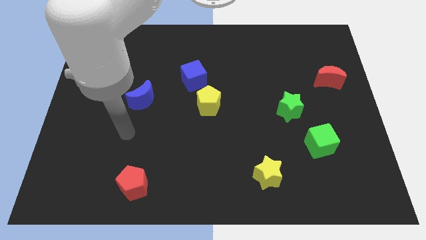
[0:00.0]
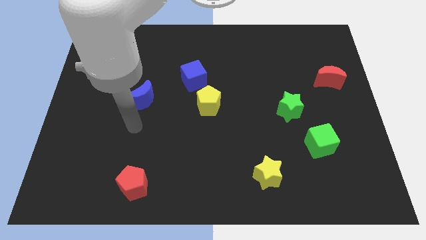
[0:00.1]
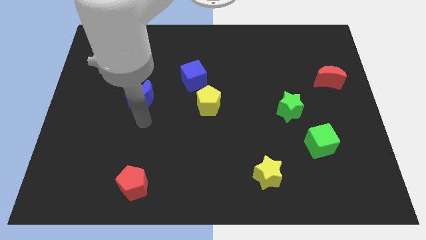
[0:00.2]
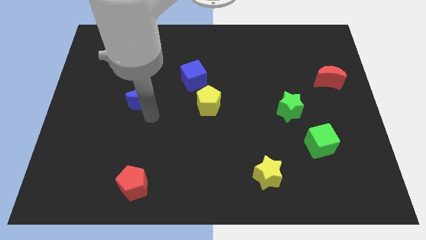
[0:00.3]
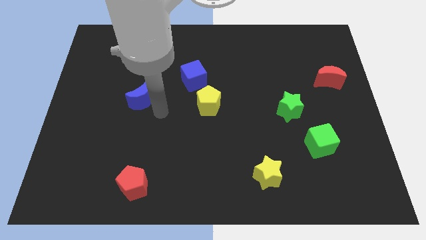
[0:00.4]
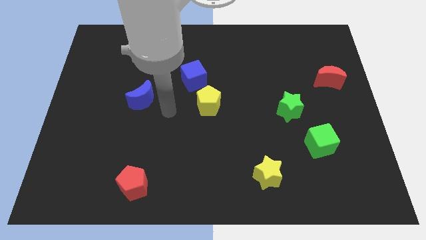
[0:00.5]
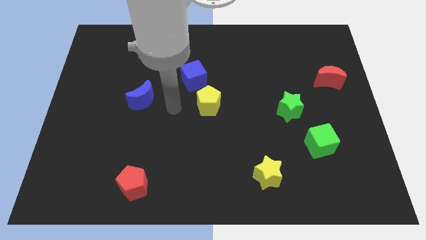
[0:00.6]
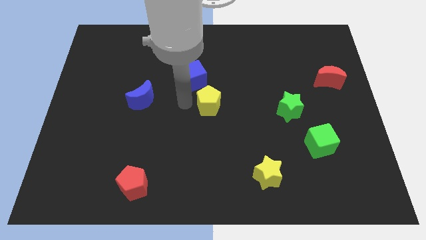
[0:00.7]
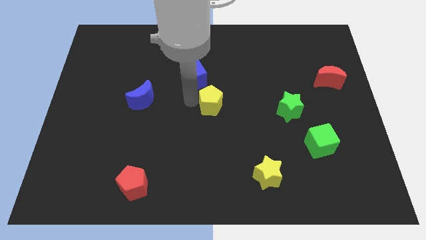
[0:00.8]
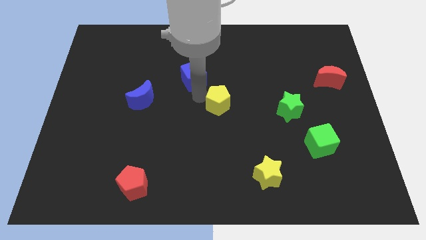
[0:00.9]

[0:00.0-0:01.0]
pull the blue cube apart from the yellow pentagon

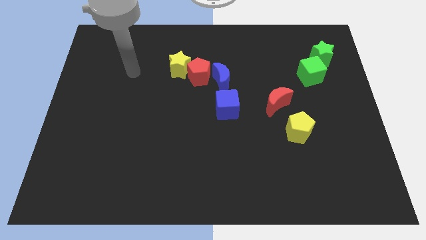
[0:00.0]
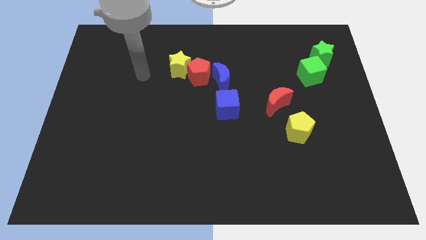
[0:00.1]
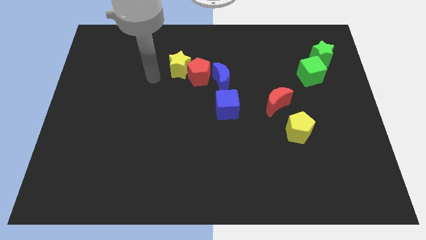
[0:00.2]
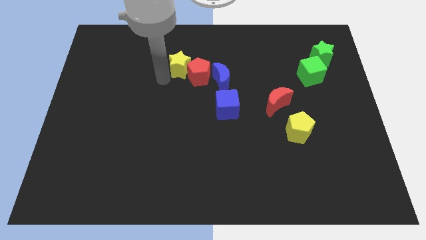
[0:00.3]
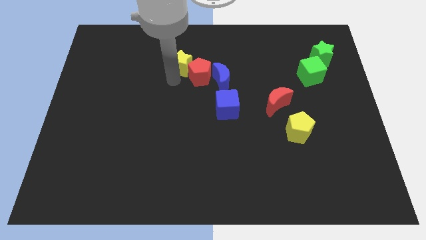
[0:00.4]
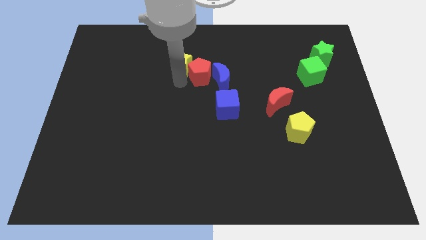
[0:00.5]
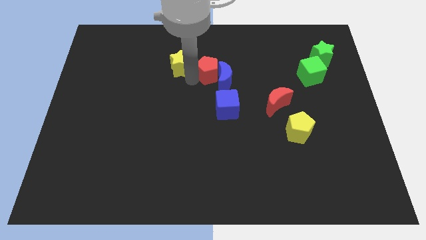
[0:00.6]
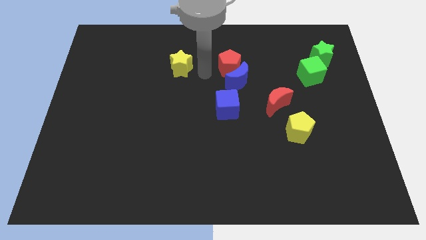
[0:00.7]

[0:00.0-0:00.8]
move the yellow star away from the red pentagon

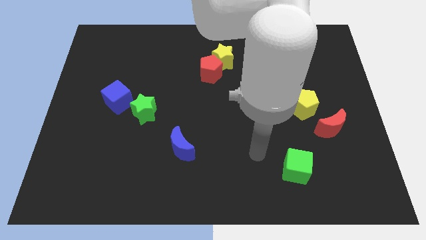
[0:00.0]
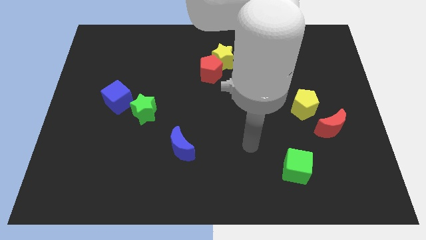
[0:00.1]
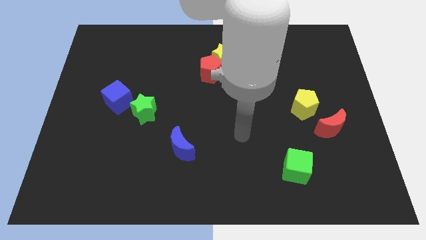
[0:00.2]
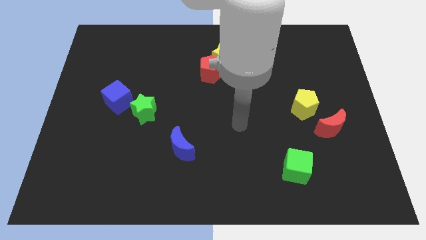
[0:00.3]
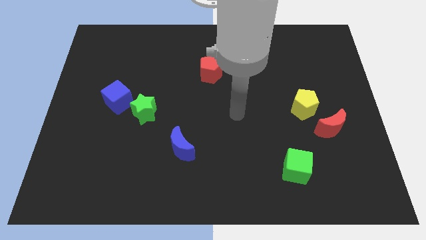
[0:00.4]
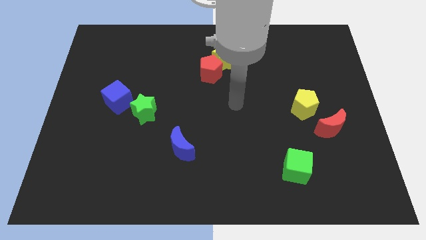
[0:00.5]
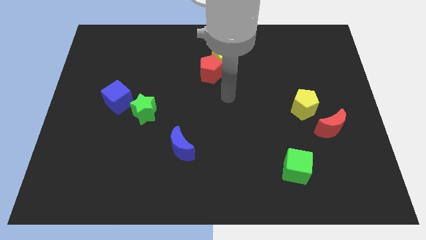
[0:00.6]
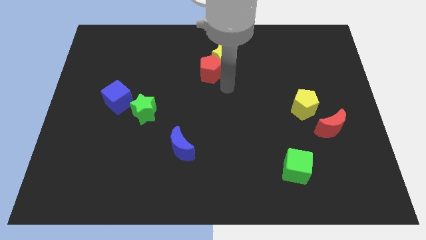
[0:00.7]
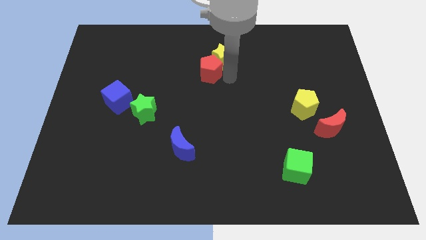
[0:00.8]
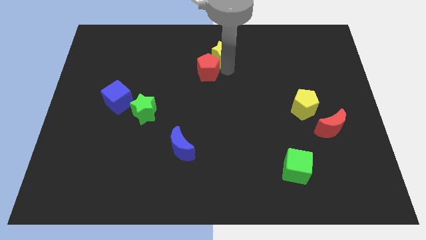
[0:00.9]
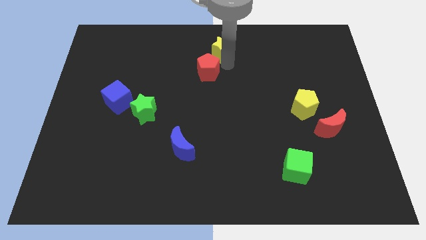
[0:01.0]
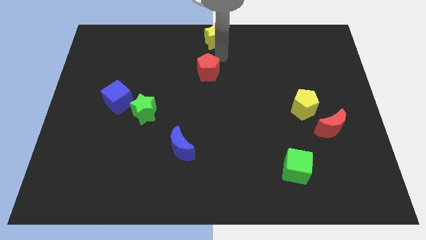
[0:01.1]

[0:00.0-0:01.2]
separate the red pentagon from the yellow star

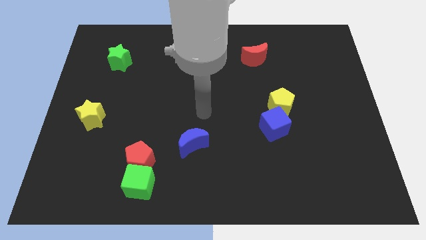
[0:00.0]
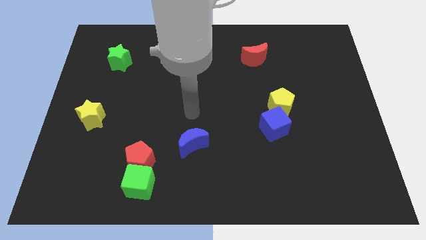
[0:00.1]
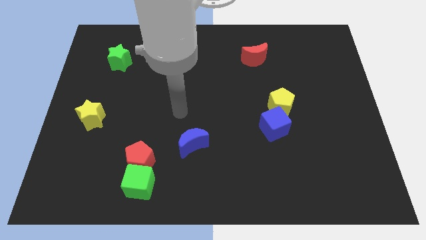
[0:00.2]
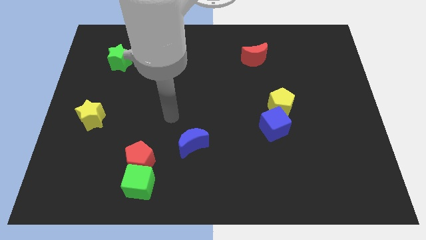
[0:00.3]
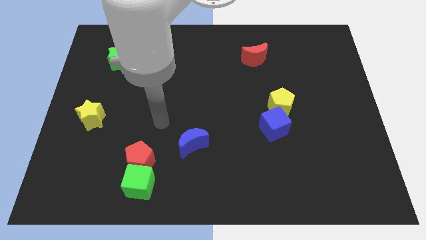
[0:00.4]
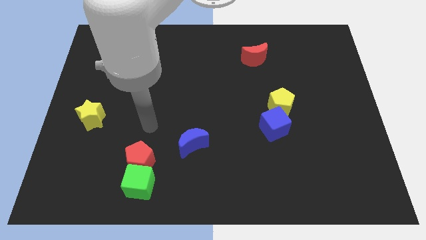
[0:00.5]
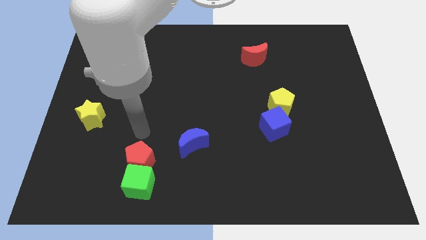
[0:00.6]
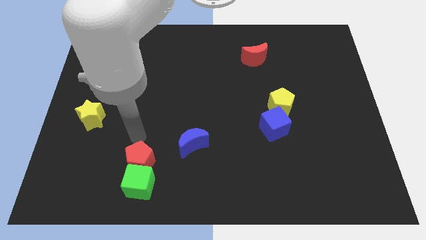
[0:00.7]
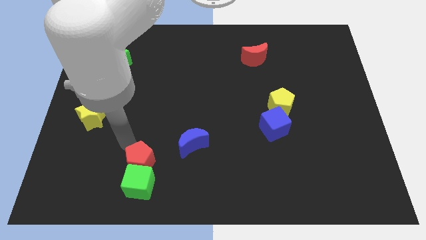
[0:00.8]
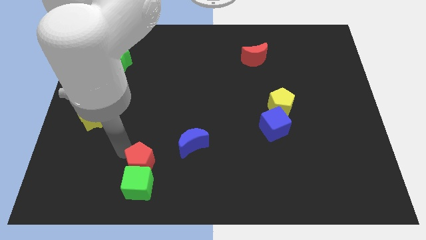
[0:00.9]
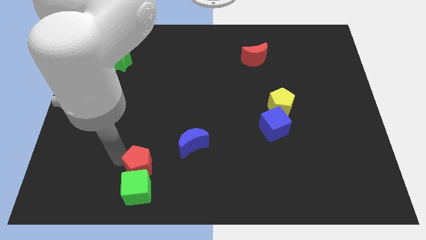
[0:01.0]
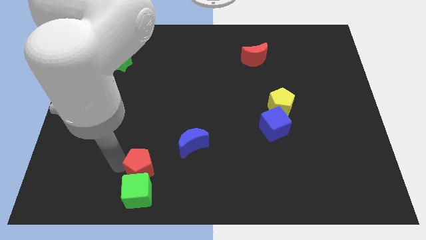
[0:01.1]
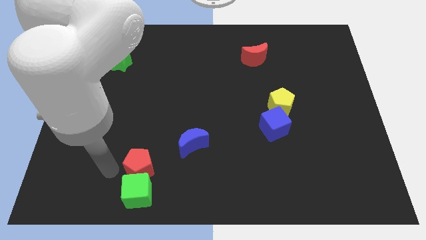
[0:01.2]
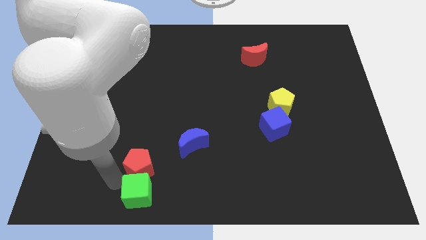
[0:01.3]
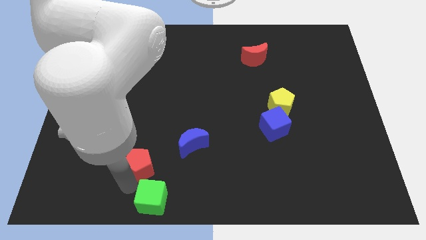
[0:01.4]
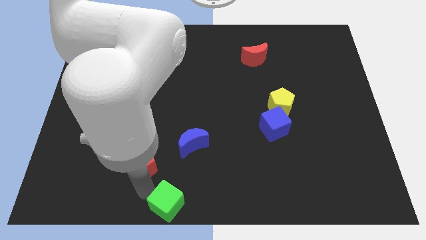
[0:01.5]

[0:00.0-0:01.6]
pull the red pentagon apart from the green cube

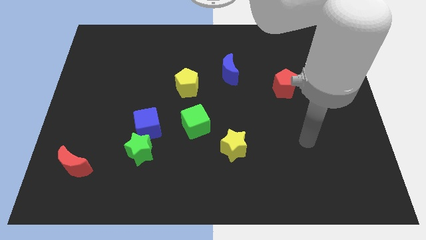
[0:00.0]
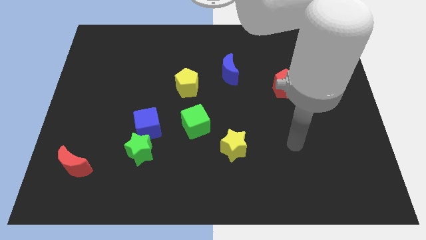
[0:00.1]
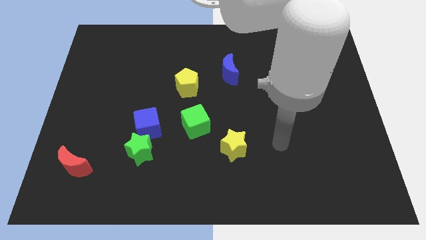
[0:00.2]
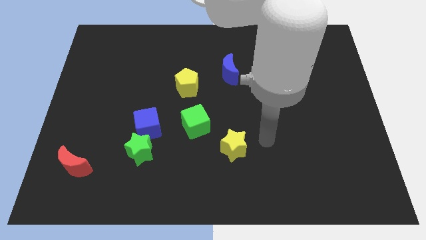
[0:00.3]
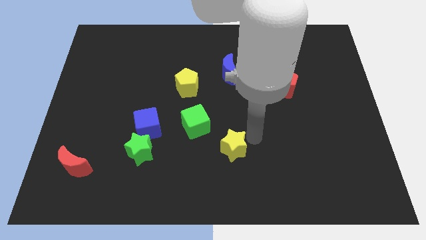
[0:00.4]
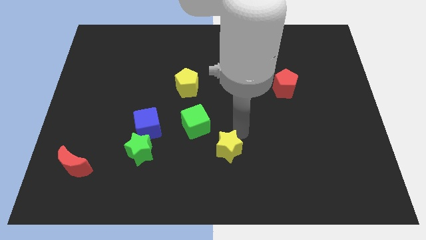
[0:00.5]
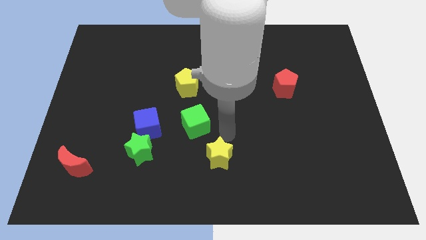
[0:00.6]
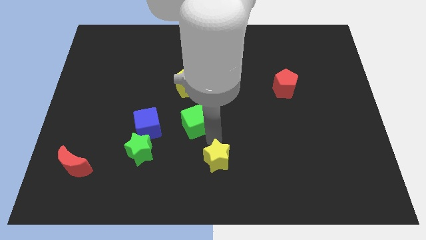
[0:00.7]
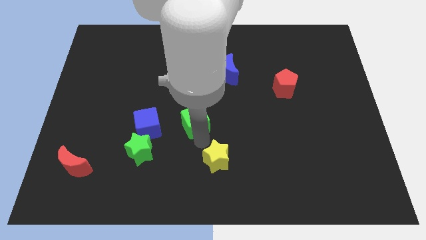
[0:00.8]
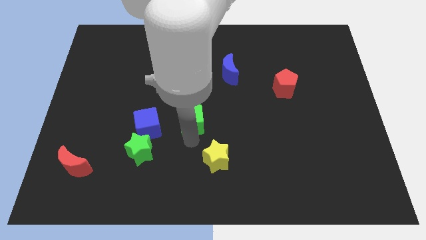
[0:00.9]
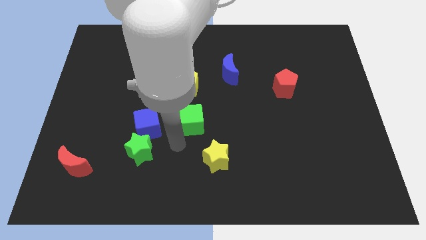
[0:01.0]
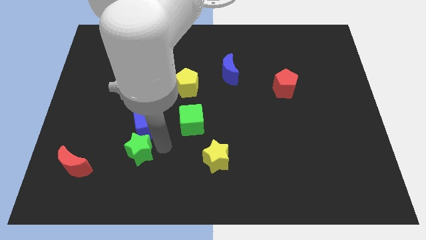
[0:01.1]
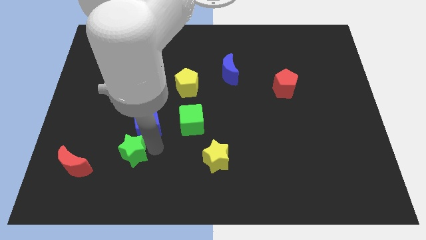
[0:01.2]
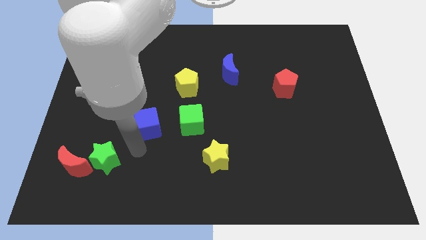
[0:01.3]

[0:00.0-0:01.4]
move the blue cube away from the green star

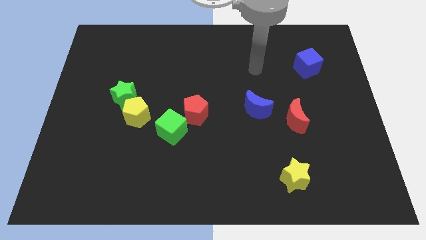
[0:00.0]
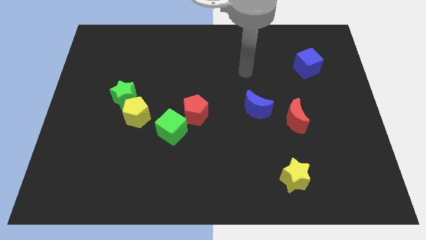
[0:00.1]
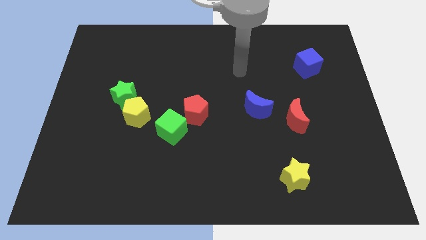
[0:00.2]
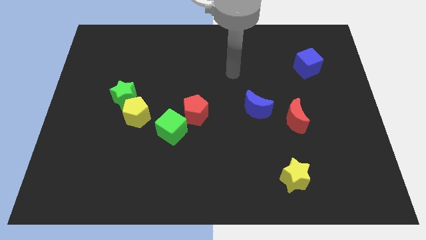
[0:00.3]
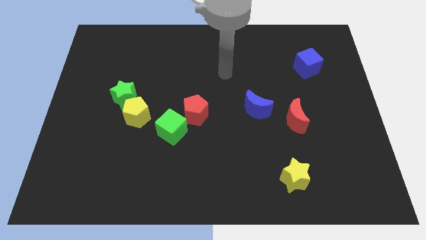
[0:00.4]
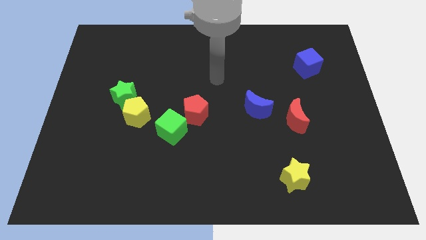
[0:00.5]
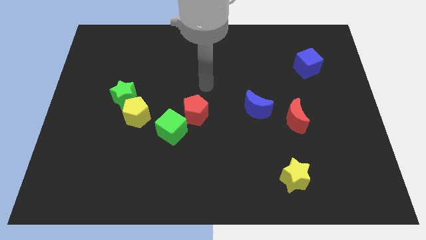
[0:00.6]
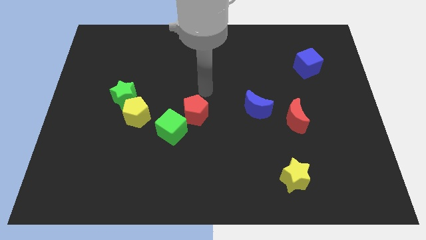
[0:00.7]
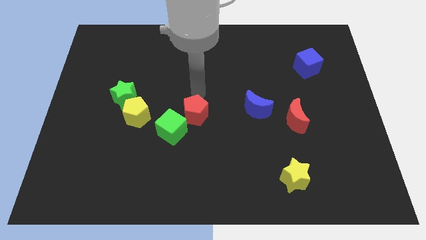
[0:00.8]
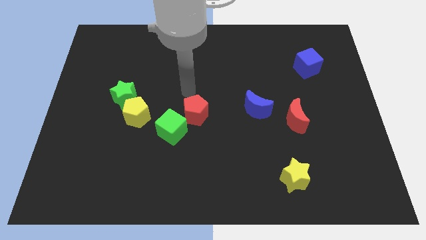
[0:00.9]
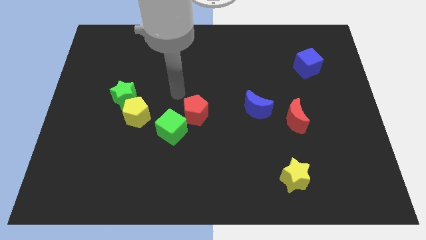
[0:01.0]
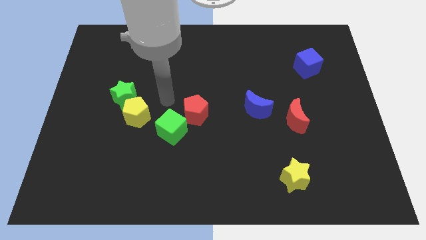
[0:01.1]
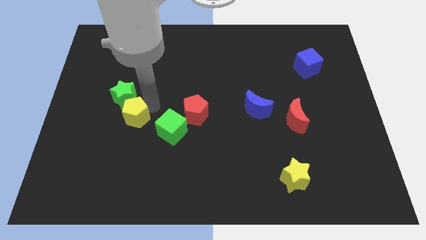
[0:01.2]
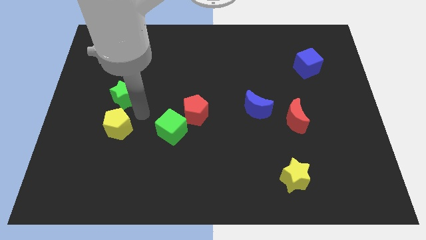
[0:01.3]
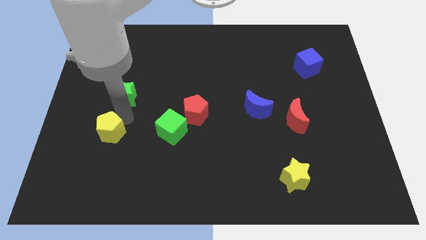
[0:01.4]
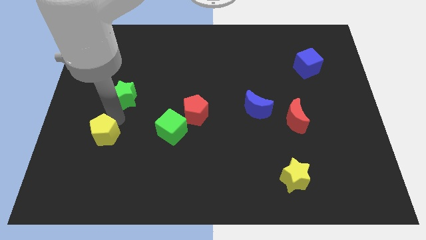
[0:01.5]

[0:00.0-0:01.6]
move the green star away from the yellow pentagon

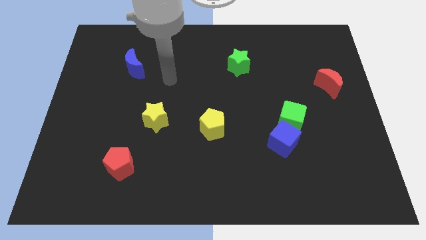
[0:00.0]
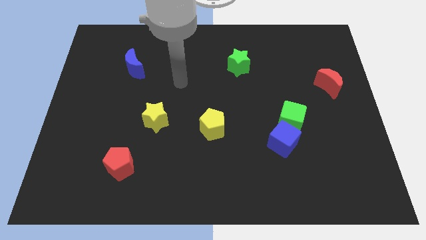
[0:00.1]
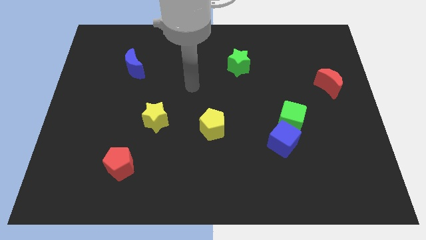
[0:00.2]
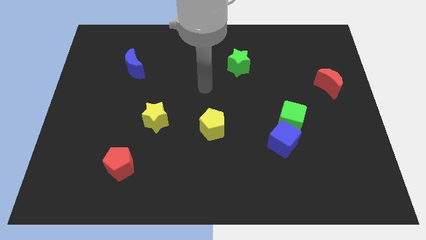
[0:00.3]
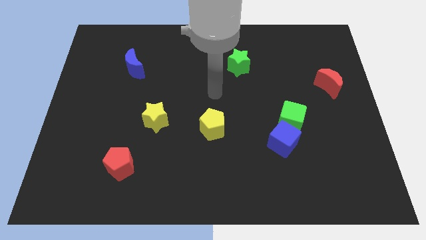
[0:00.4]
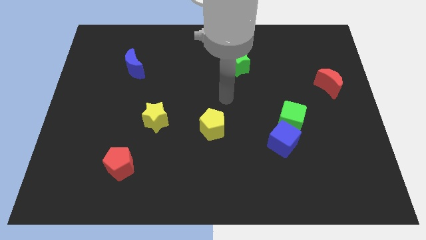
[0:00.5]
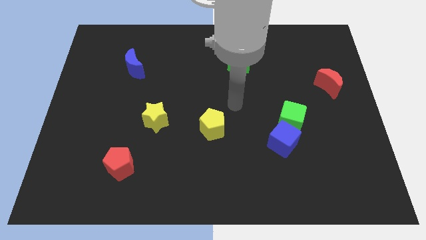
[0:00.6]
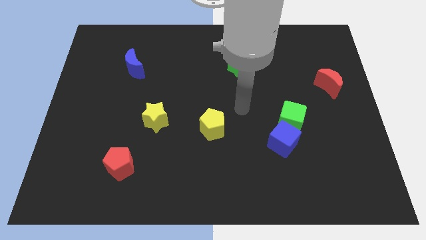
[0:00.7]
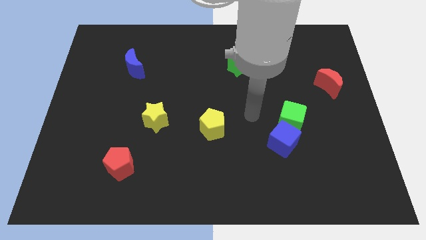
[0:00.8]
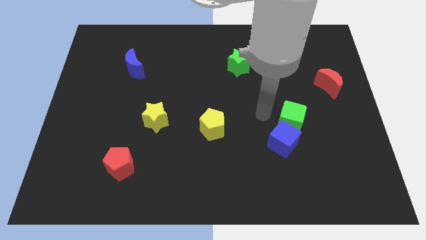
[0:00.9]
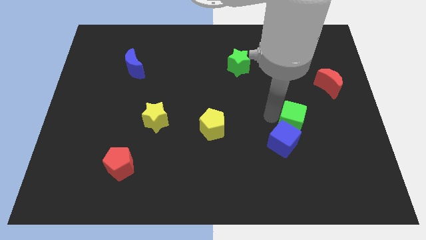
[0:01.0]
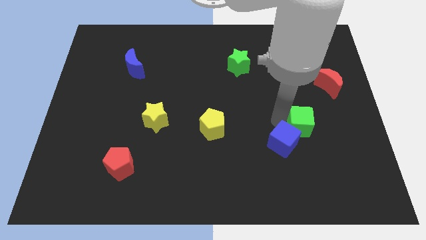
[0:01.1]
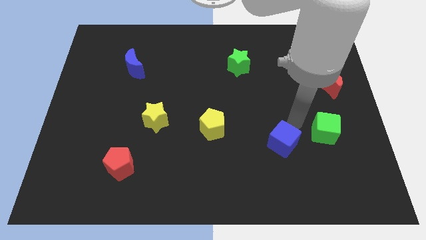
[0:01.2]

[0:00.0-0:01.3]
pull the blue cube apart from the green cube

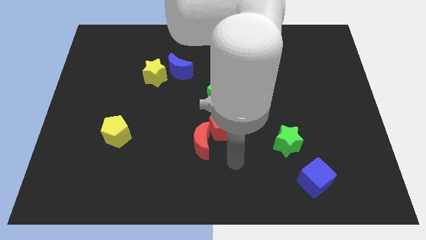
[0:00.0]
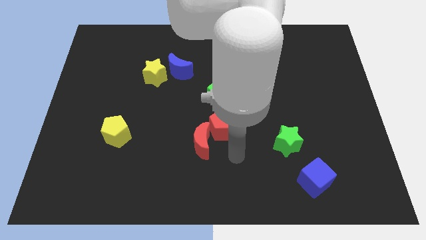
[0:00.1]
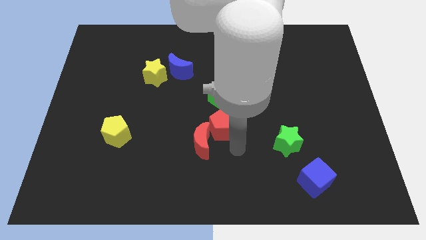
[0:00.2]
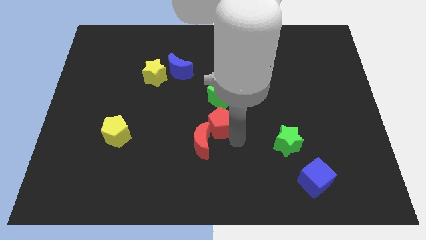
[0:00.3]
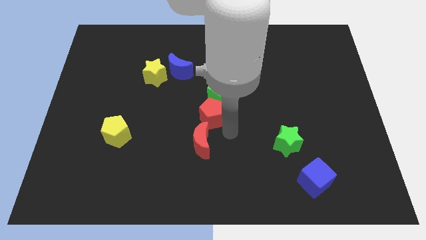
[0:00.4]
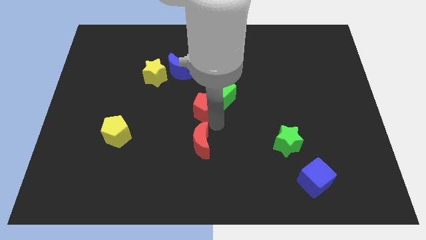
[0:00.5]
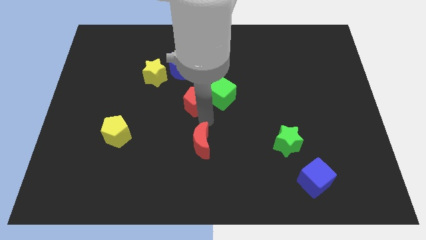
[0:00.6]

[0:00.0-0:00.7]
separate the red moon from the red pentagon
